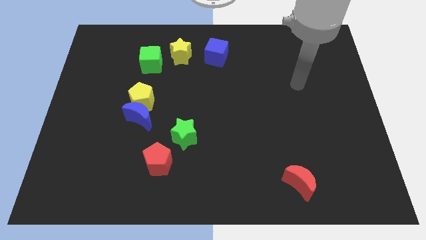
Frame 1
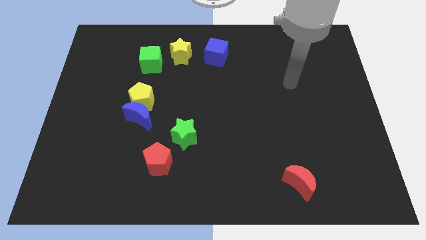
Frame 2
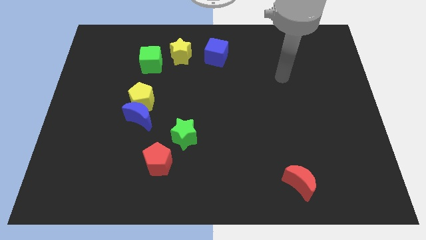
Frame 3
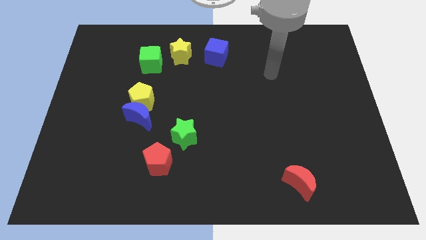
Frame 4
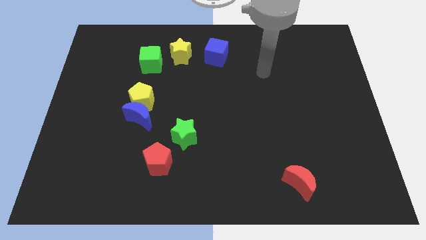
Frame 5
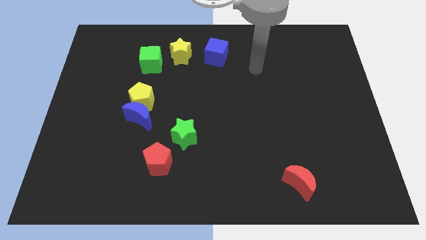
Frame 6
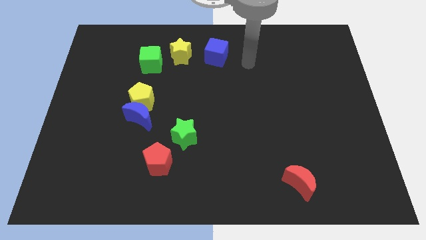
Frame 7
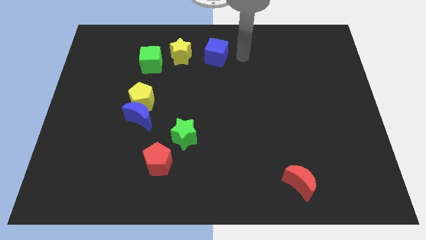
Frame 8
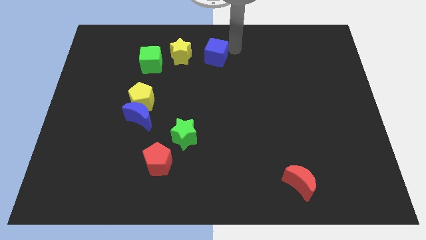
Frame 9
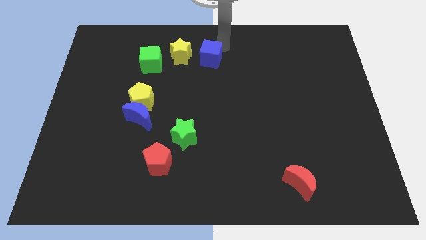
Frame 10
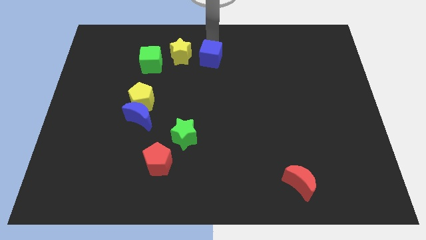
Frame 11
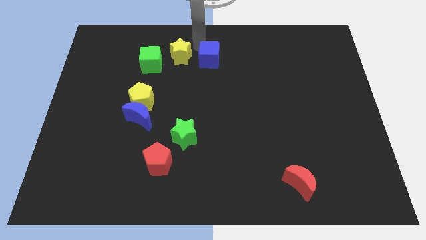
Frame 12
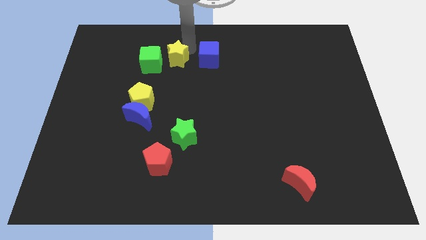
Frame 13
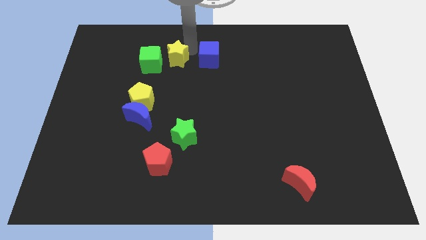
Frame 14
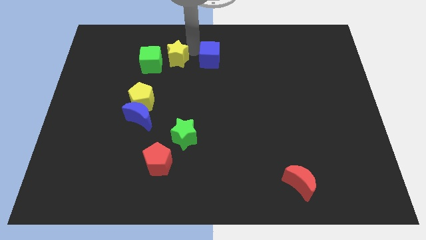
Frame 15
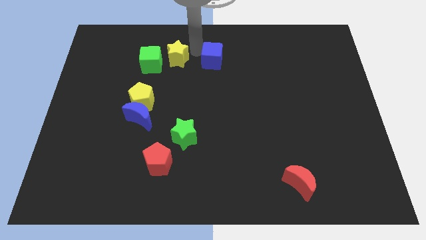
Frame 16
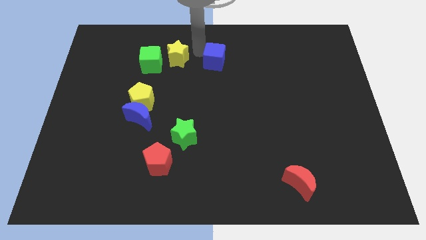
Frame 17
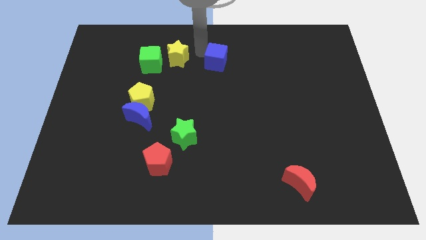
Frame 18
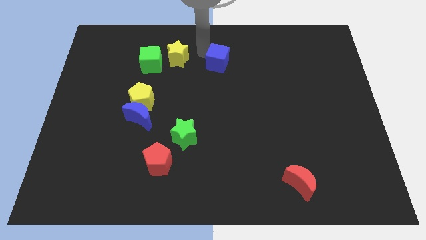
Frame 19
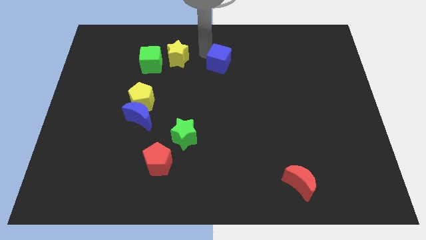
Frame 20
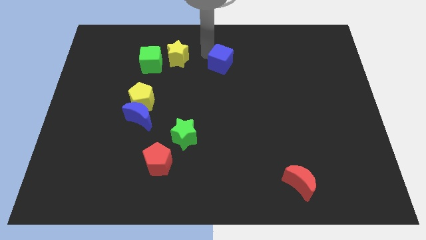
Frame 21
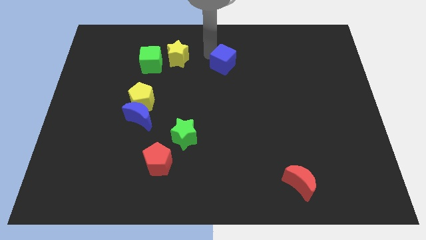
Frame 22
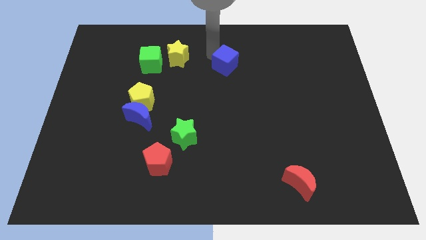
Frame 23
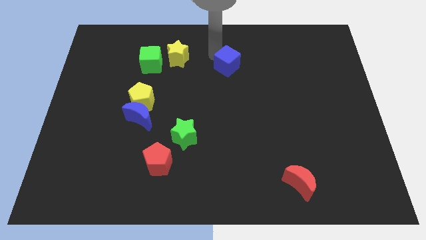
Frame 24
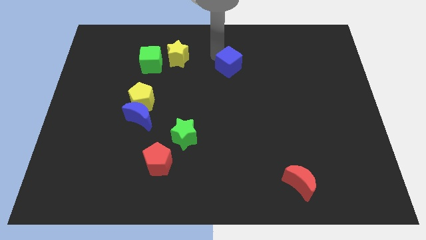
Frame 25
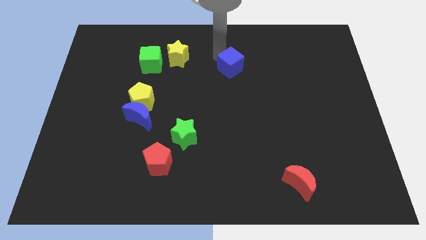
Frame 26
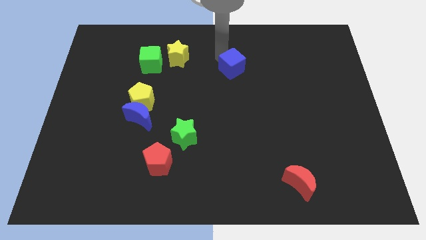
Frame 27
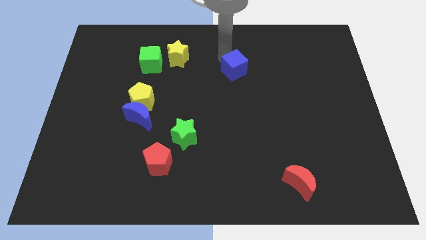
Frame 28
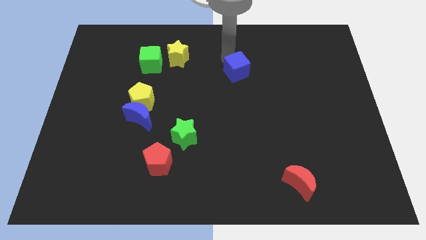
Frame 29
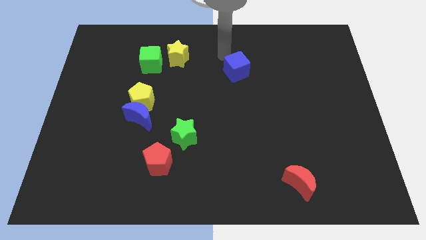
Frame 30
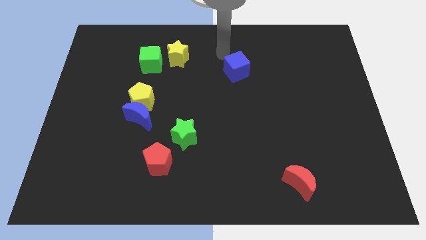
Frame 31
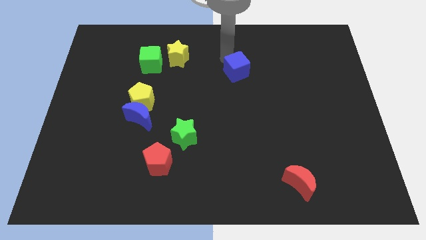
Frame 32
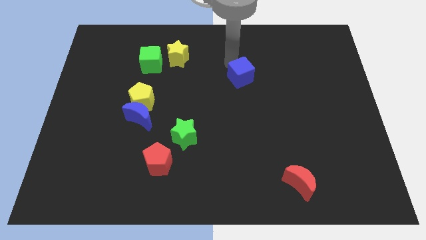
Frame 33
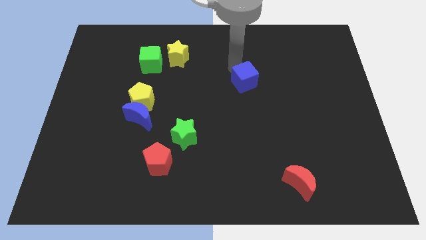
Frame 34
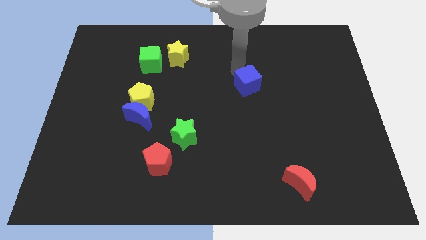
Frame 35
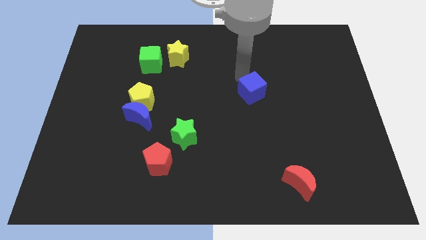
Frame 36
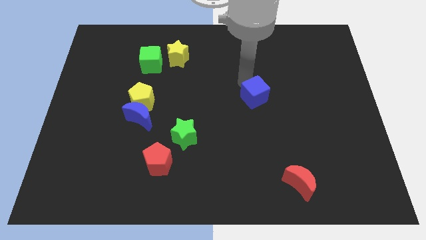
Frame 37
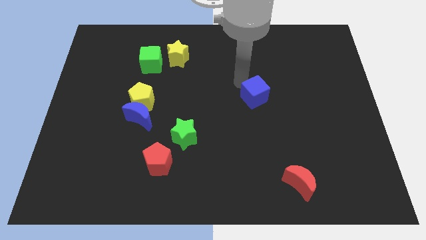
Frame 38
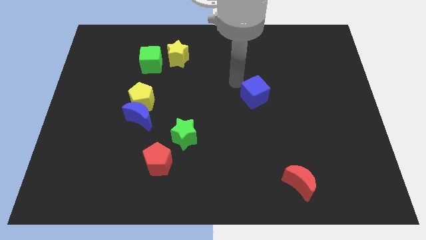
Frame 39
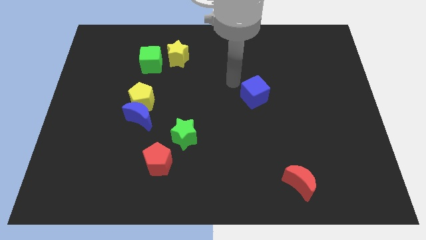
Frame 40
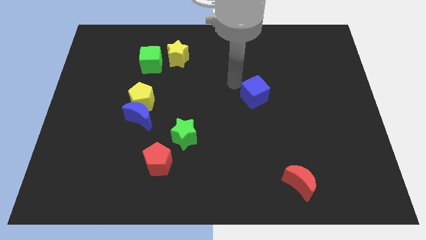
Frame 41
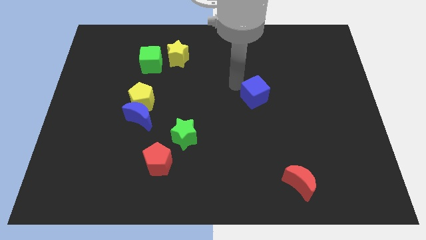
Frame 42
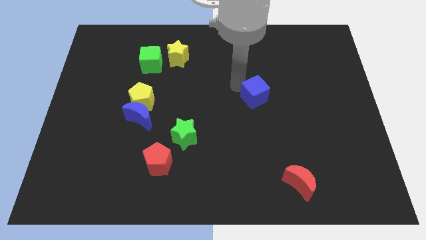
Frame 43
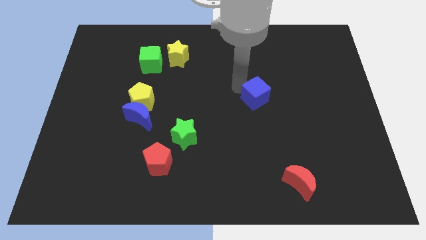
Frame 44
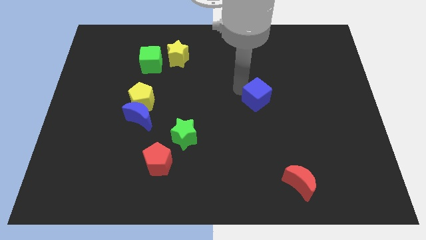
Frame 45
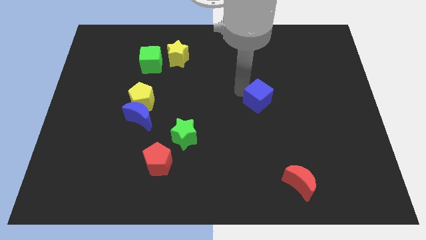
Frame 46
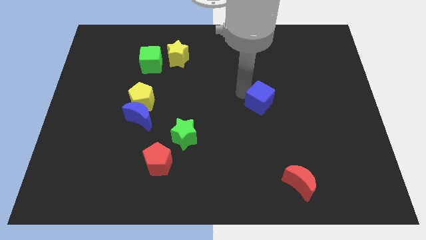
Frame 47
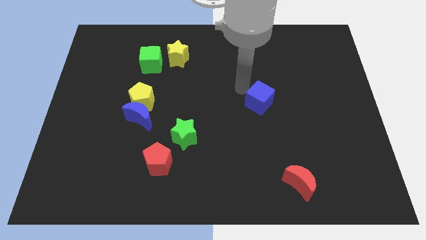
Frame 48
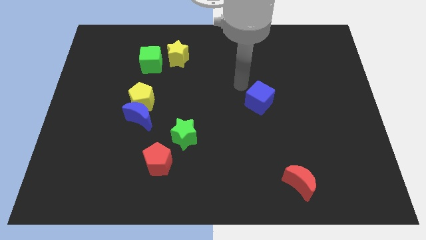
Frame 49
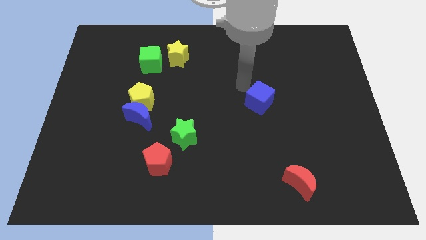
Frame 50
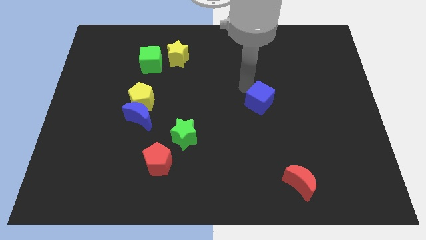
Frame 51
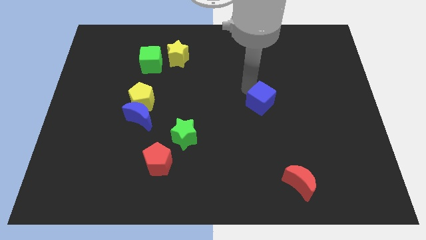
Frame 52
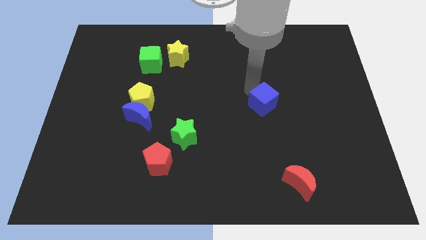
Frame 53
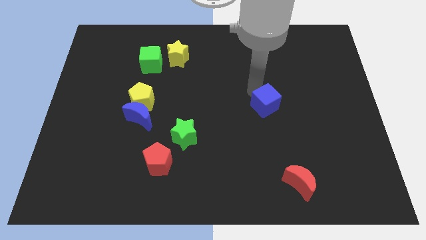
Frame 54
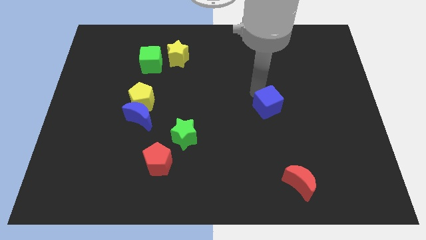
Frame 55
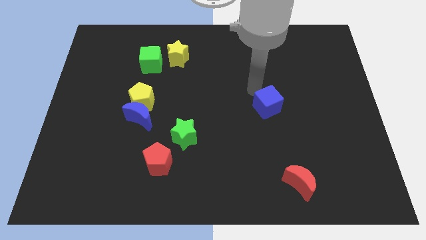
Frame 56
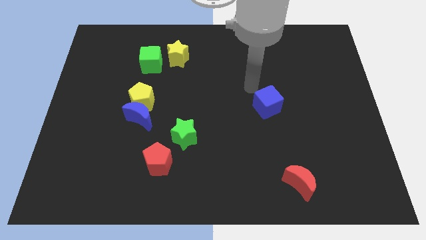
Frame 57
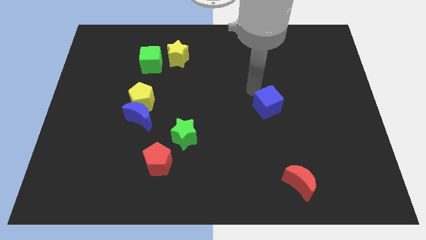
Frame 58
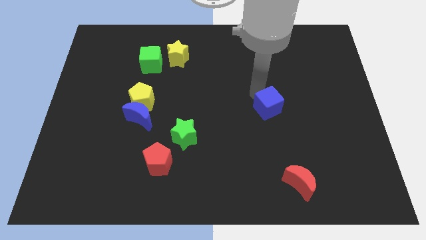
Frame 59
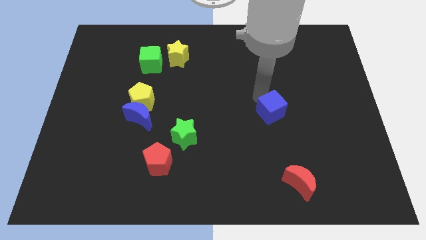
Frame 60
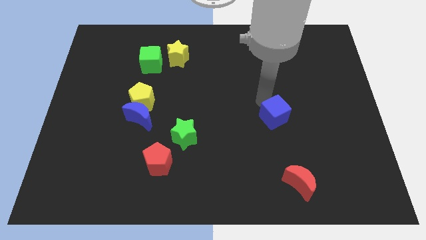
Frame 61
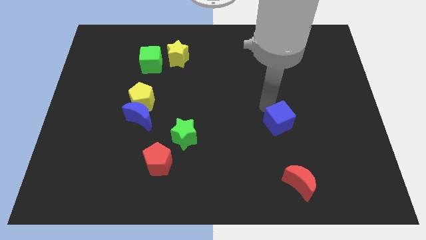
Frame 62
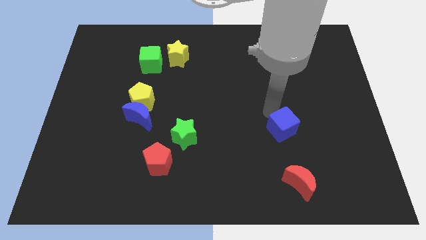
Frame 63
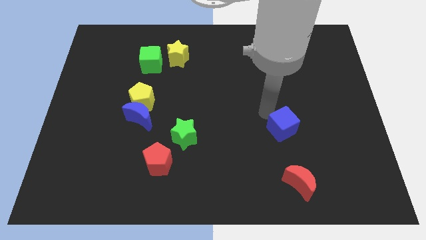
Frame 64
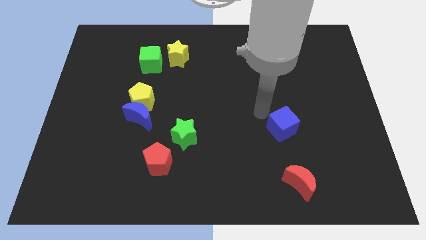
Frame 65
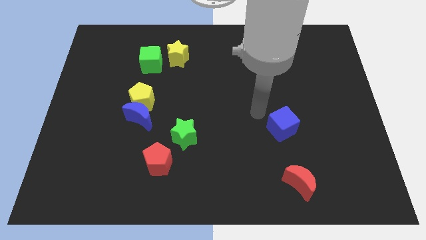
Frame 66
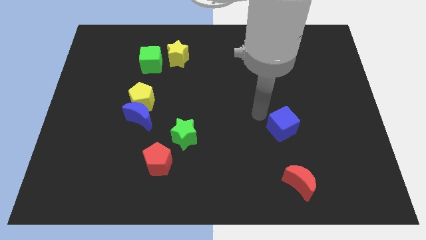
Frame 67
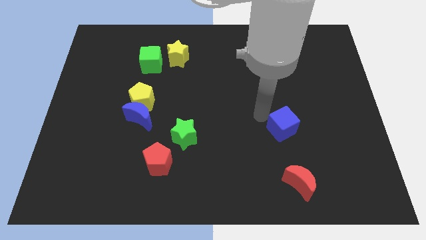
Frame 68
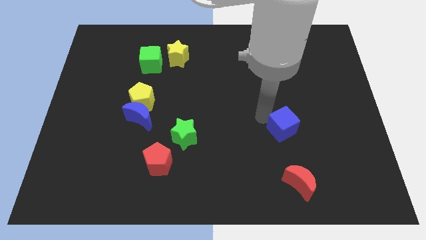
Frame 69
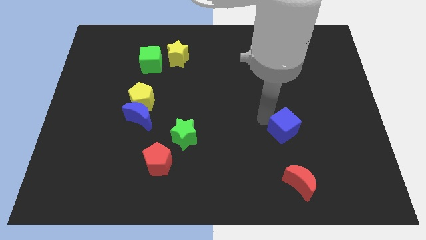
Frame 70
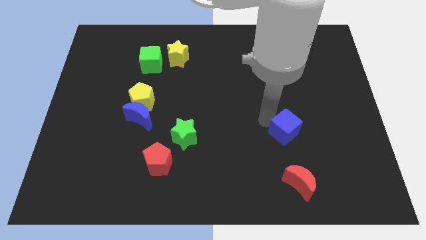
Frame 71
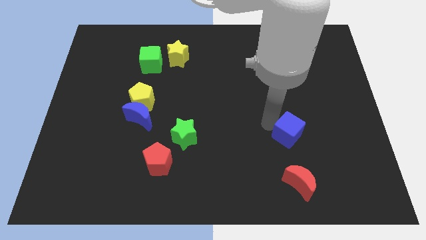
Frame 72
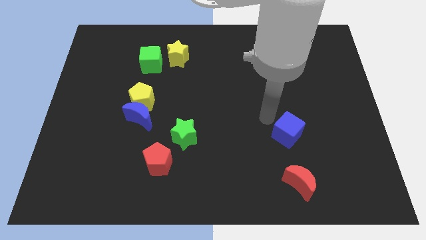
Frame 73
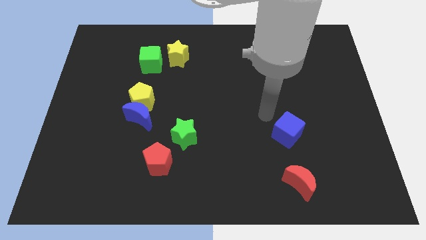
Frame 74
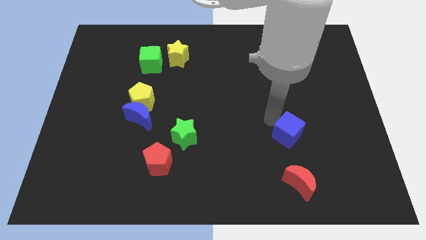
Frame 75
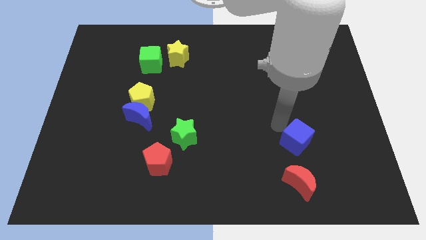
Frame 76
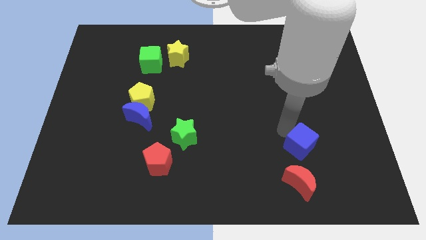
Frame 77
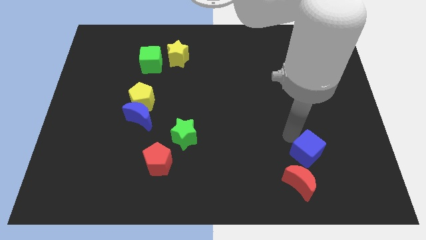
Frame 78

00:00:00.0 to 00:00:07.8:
slide the blue cube diagonally up and to the right of the red moon
